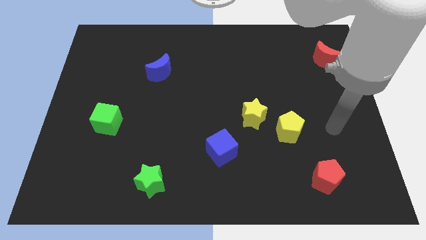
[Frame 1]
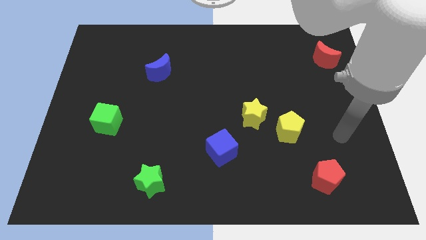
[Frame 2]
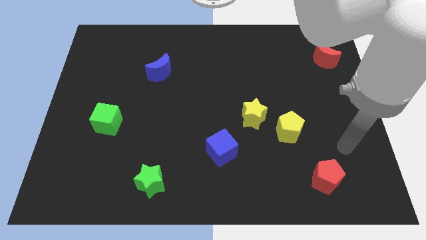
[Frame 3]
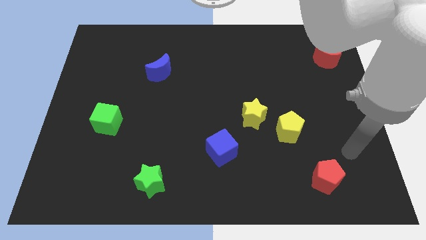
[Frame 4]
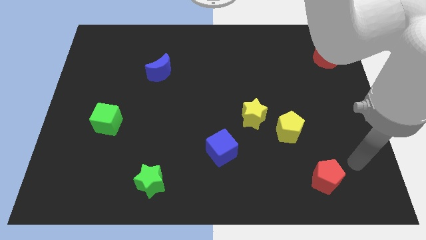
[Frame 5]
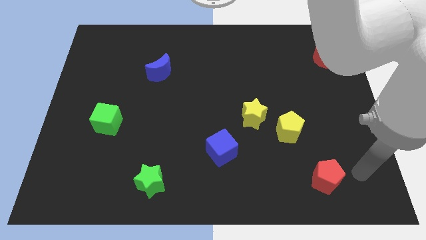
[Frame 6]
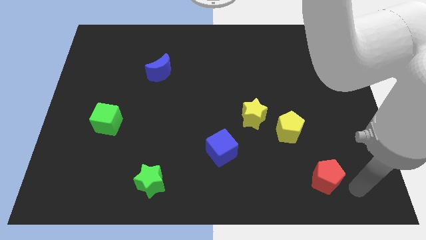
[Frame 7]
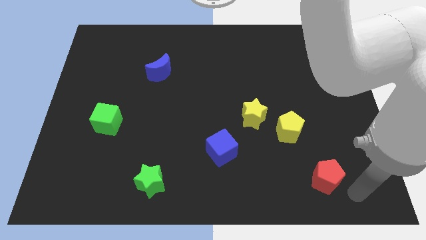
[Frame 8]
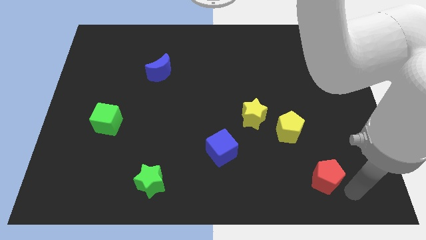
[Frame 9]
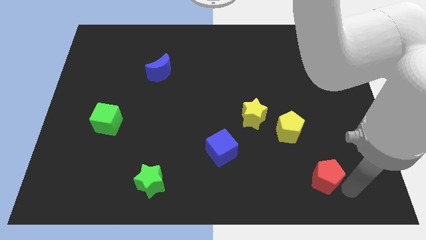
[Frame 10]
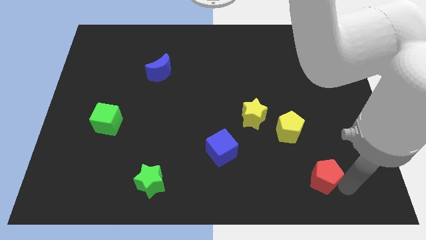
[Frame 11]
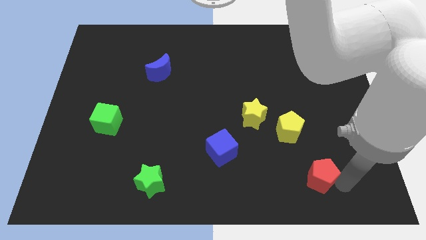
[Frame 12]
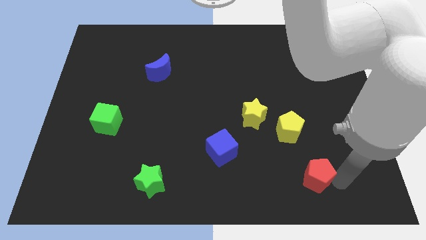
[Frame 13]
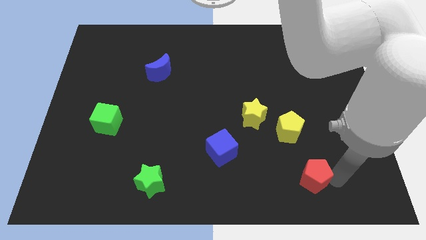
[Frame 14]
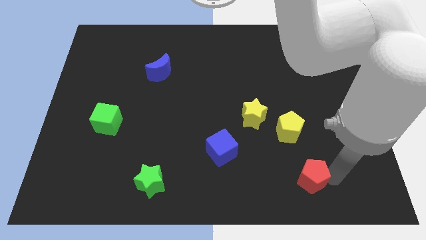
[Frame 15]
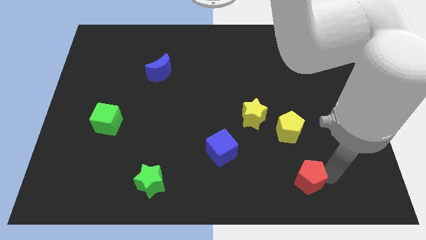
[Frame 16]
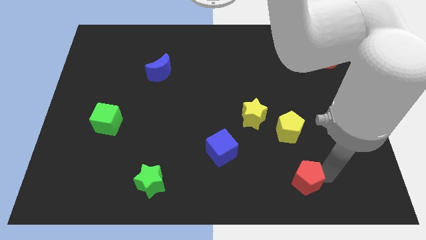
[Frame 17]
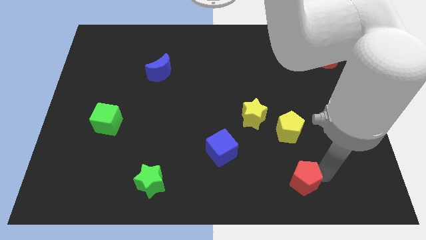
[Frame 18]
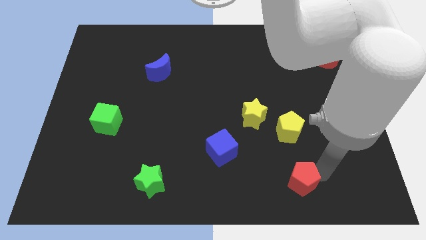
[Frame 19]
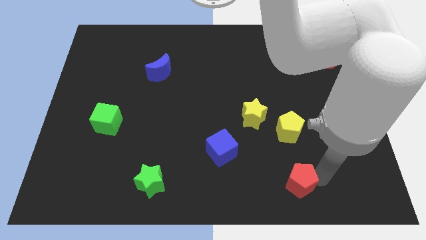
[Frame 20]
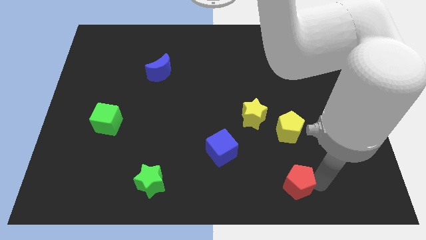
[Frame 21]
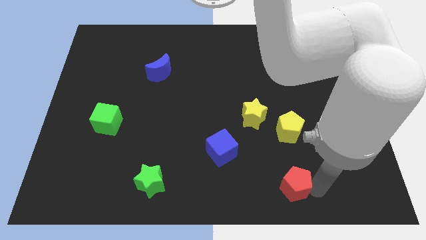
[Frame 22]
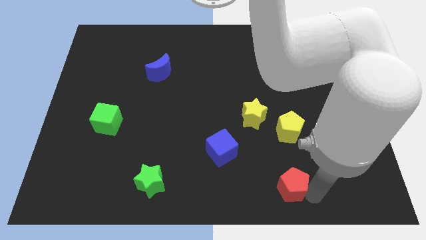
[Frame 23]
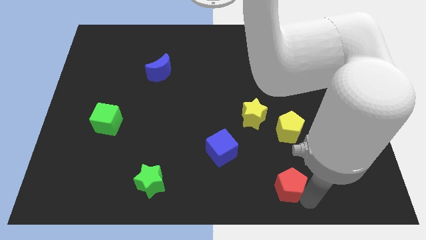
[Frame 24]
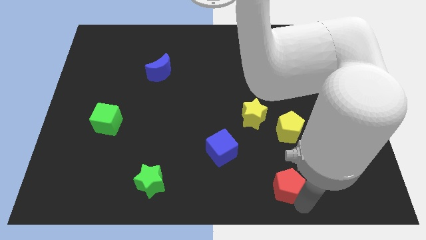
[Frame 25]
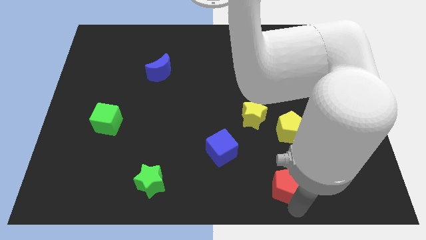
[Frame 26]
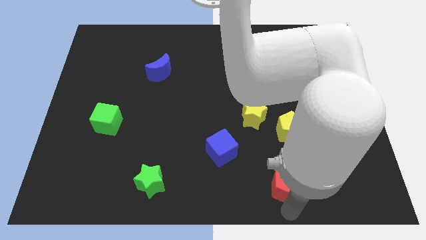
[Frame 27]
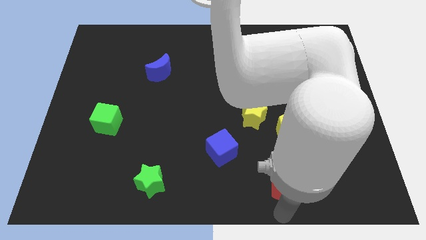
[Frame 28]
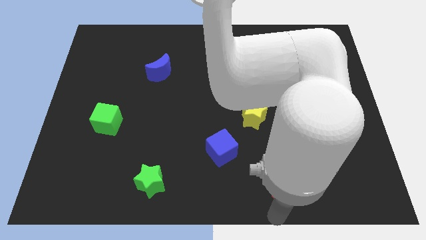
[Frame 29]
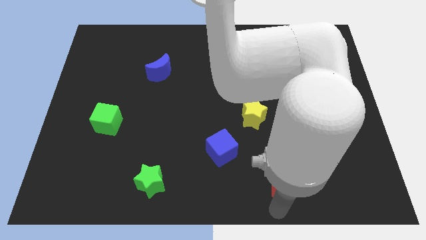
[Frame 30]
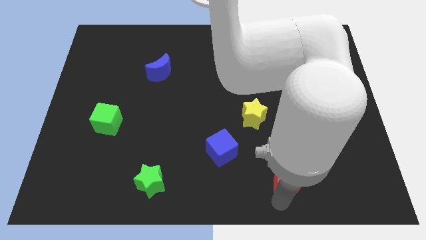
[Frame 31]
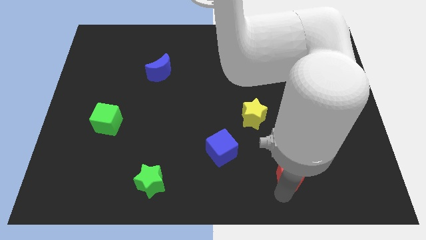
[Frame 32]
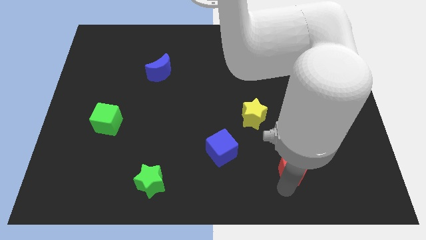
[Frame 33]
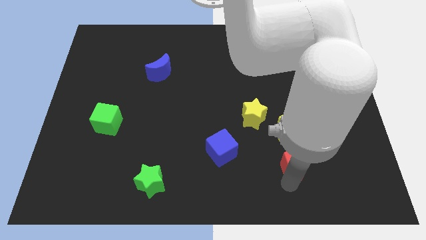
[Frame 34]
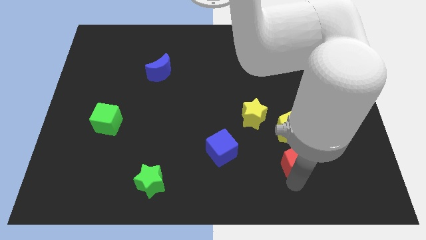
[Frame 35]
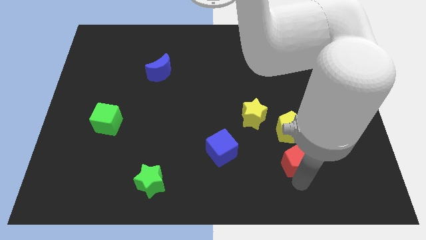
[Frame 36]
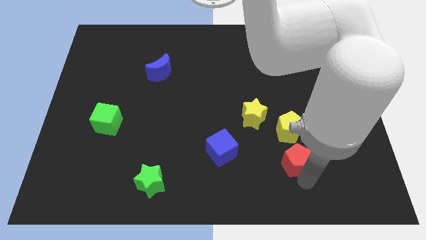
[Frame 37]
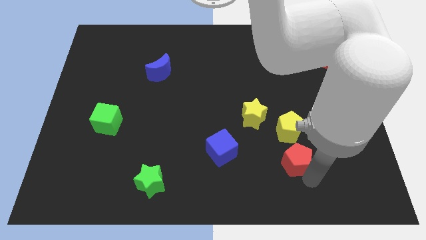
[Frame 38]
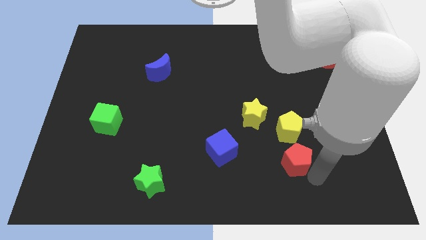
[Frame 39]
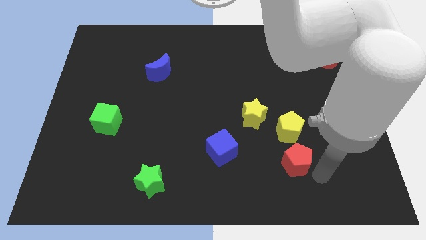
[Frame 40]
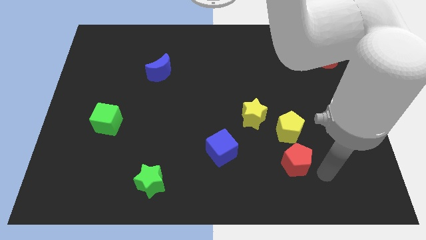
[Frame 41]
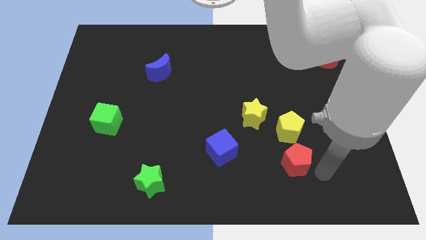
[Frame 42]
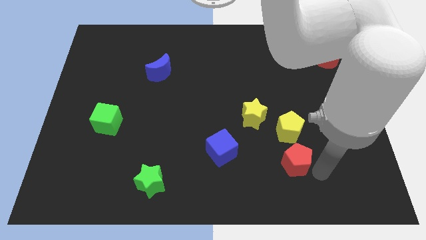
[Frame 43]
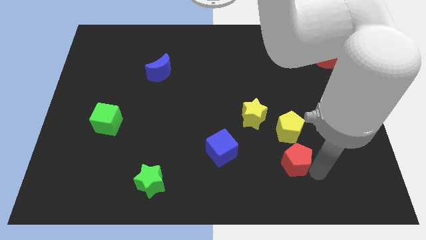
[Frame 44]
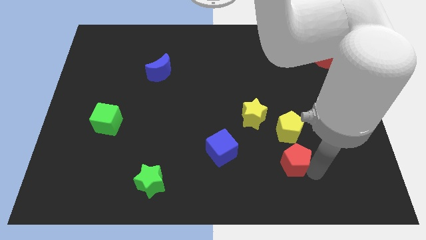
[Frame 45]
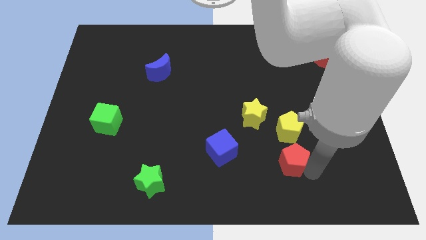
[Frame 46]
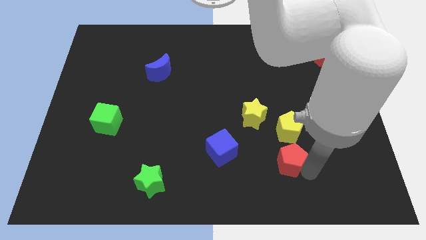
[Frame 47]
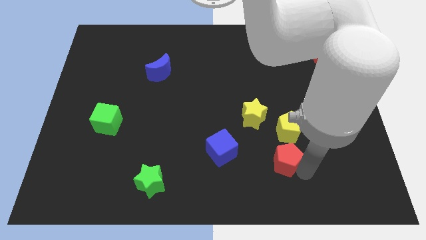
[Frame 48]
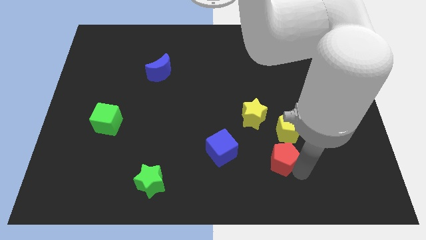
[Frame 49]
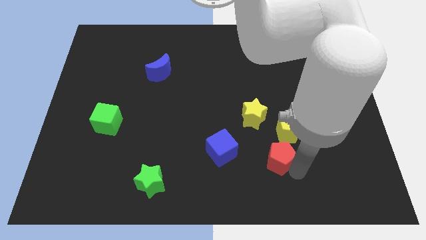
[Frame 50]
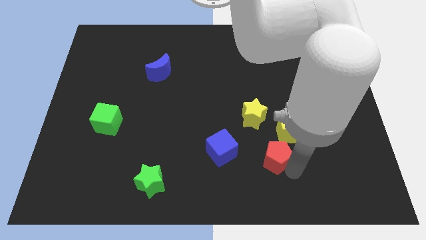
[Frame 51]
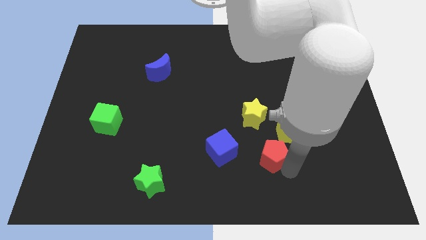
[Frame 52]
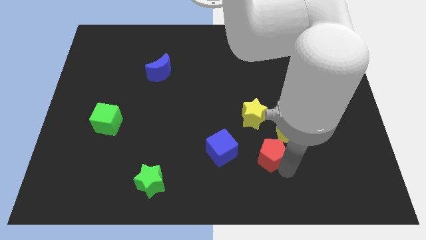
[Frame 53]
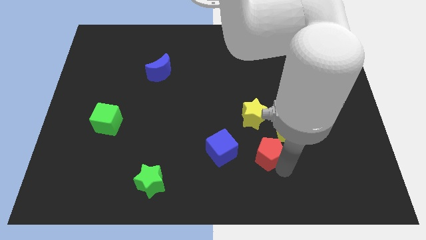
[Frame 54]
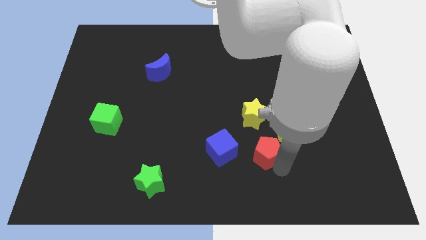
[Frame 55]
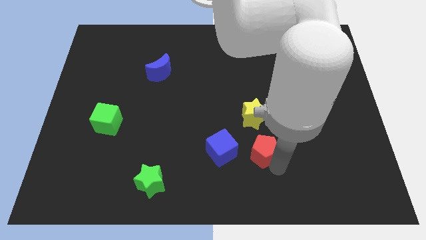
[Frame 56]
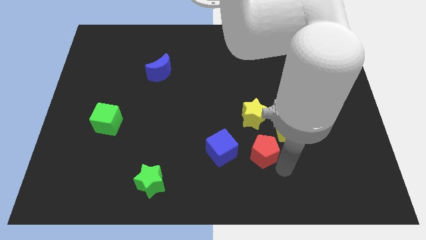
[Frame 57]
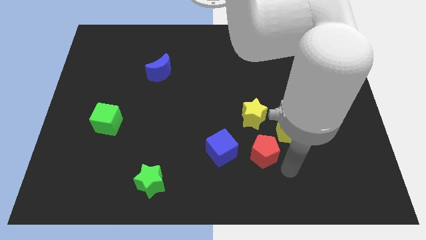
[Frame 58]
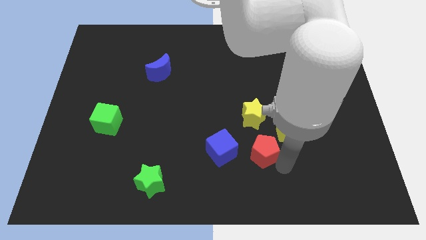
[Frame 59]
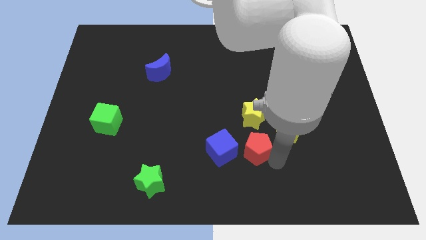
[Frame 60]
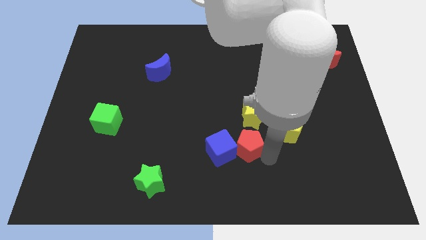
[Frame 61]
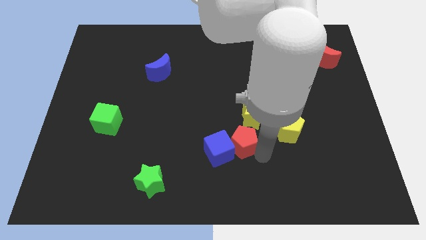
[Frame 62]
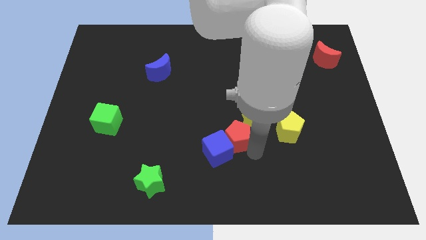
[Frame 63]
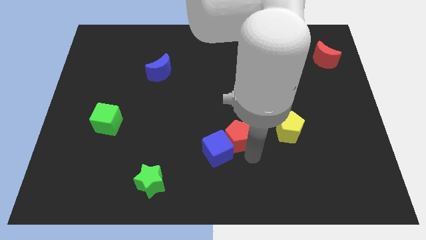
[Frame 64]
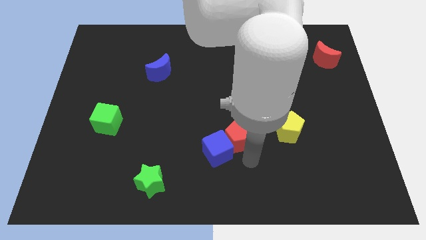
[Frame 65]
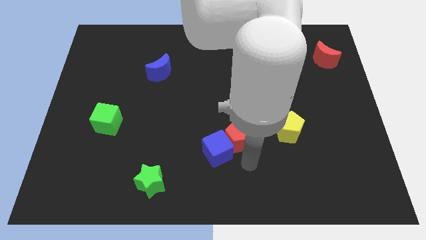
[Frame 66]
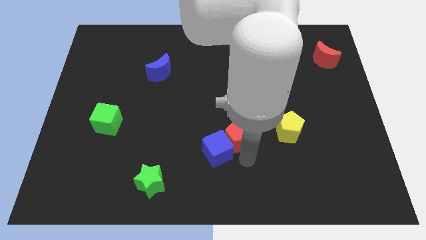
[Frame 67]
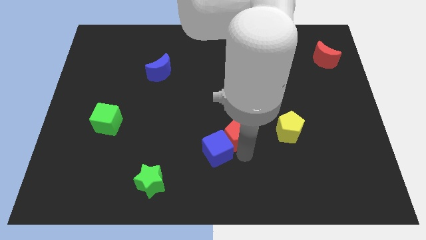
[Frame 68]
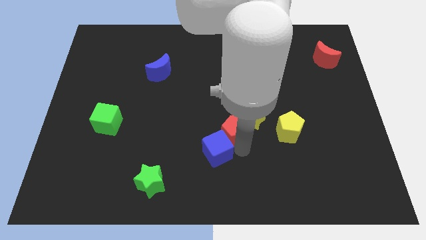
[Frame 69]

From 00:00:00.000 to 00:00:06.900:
push the red pentagon diagonally upwards and left

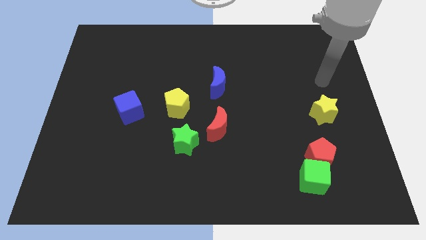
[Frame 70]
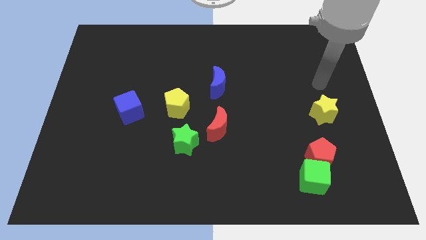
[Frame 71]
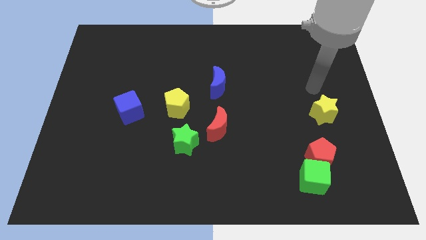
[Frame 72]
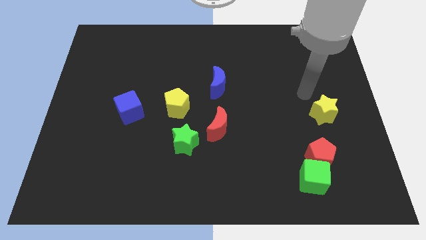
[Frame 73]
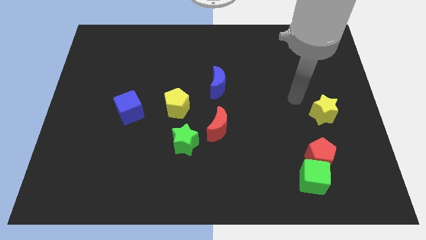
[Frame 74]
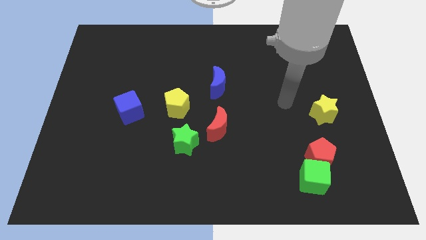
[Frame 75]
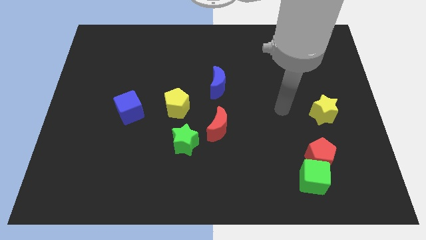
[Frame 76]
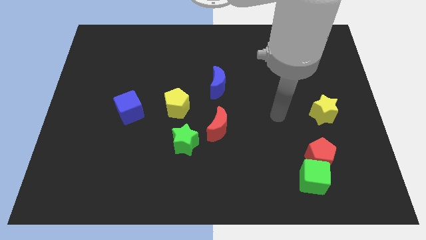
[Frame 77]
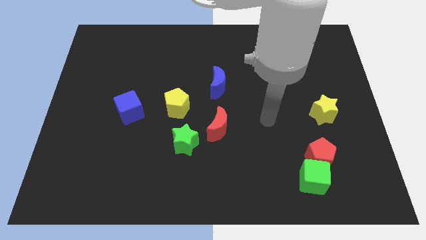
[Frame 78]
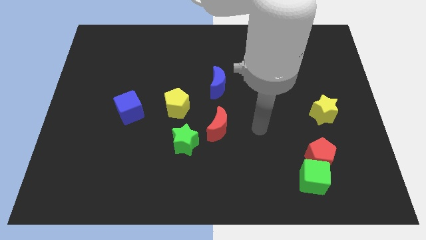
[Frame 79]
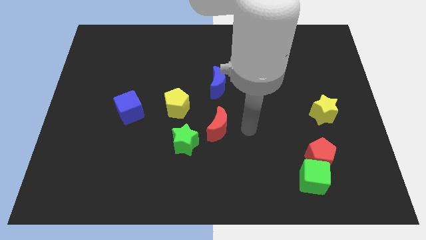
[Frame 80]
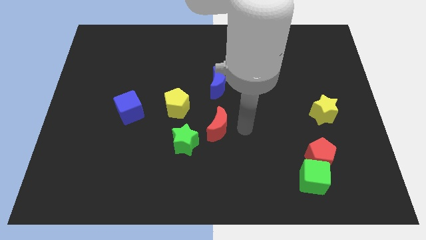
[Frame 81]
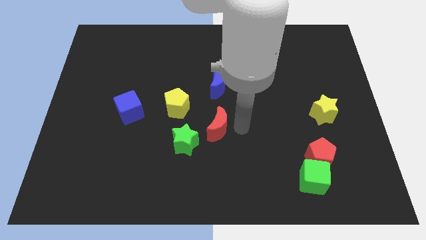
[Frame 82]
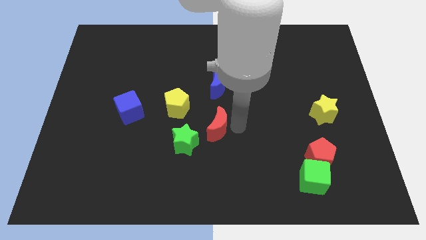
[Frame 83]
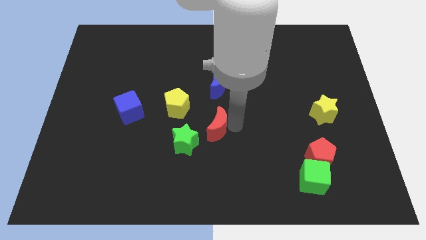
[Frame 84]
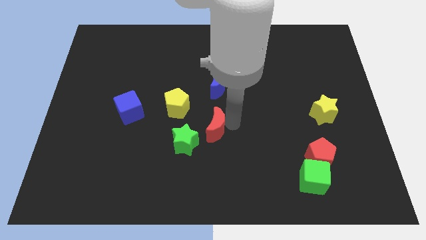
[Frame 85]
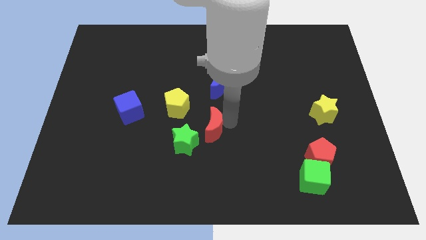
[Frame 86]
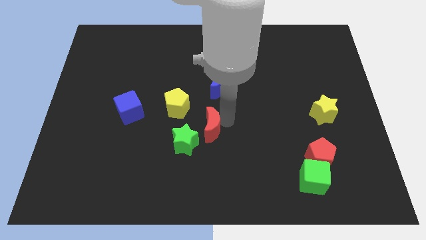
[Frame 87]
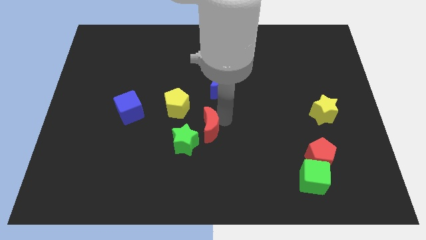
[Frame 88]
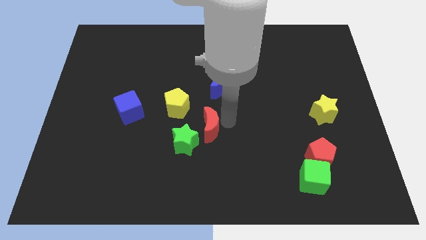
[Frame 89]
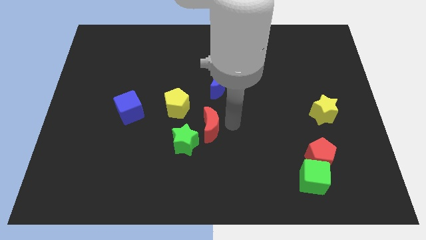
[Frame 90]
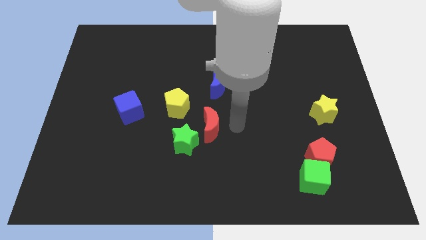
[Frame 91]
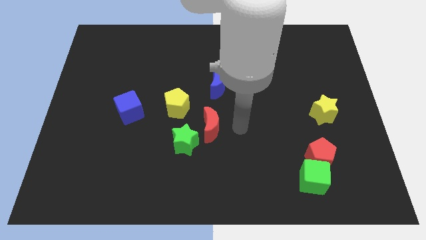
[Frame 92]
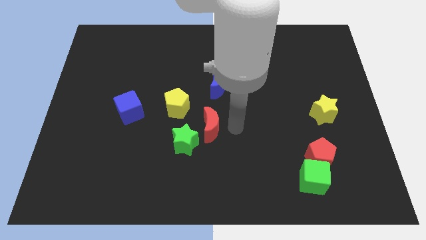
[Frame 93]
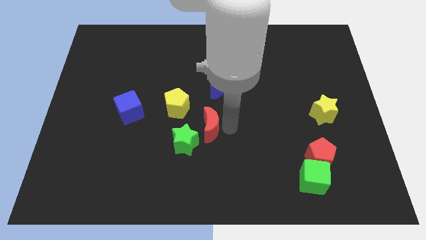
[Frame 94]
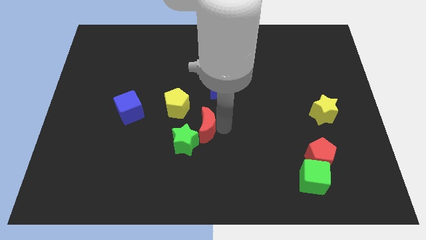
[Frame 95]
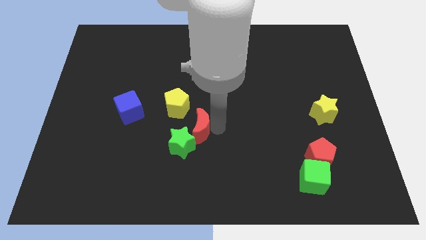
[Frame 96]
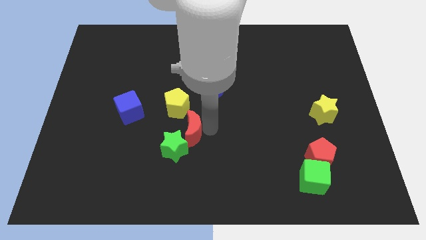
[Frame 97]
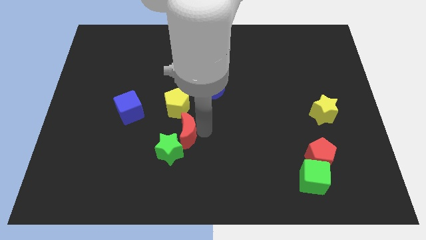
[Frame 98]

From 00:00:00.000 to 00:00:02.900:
move the red moon to the left a bit
